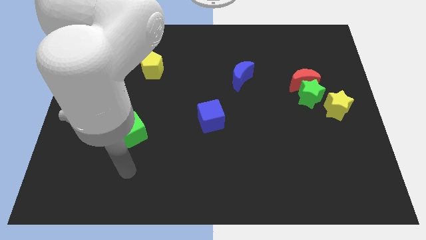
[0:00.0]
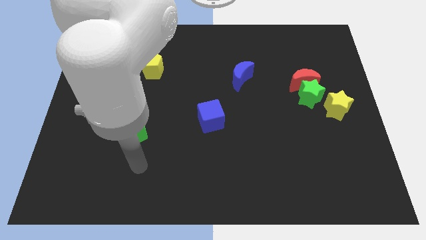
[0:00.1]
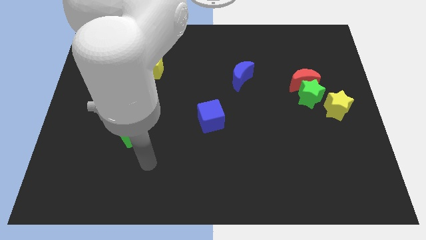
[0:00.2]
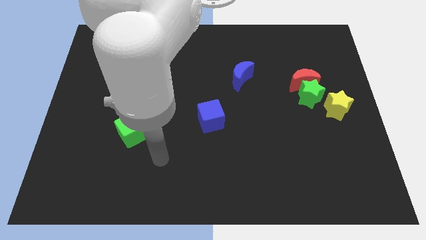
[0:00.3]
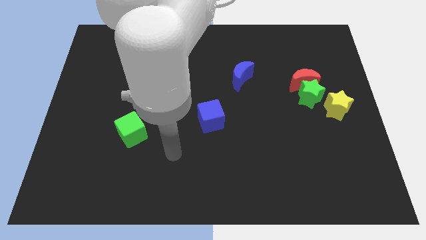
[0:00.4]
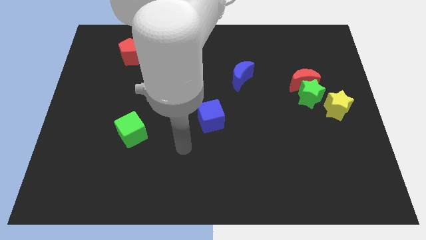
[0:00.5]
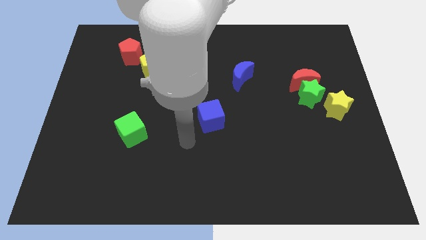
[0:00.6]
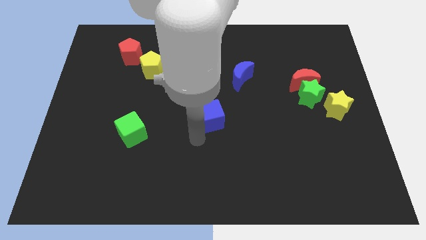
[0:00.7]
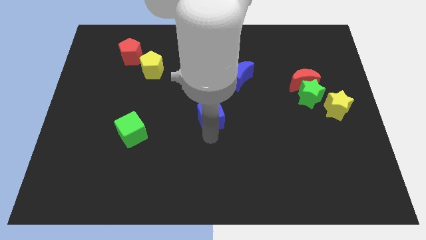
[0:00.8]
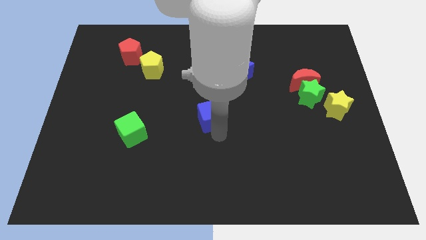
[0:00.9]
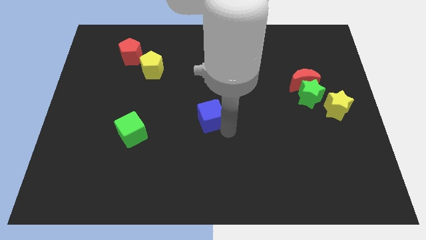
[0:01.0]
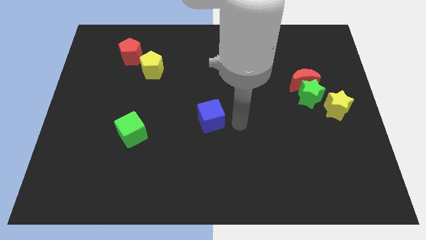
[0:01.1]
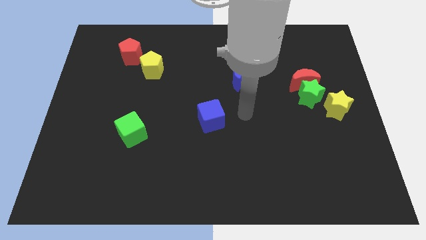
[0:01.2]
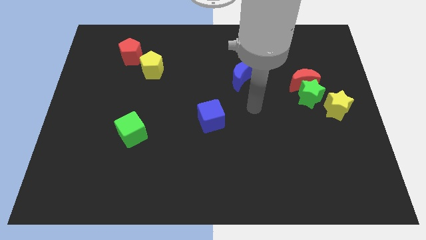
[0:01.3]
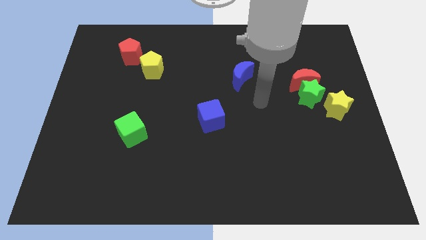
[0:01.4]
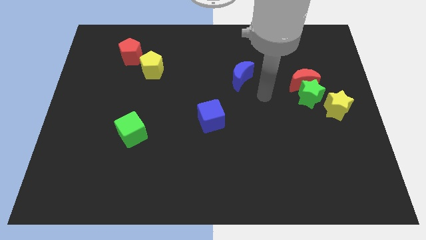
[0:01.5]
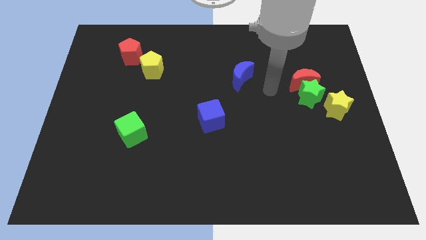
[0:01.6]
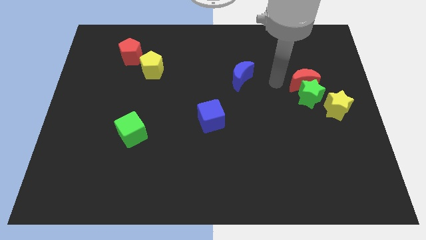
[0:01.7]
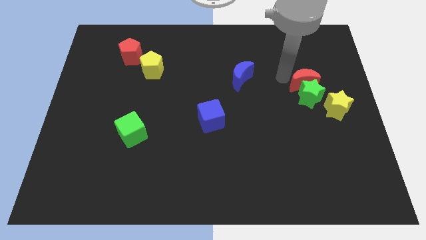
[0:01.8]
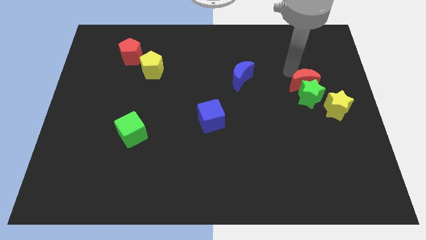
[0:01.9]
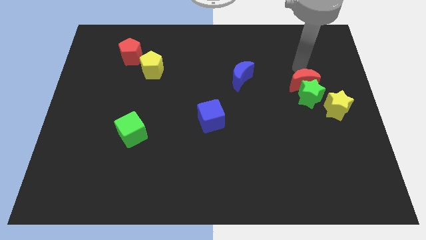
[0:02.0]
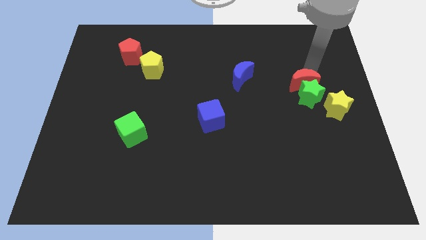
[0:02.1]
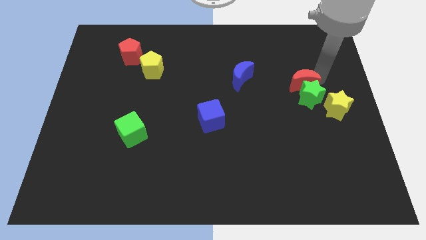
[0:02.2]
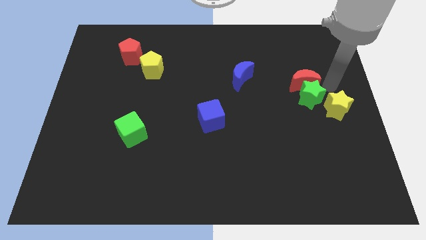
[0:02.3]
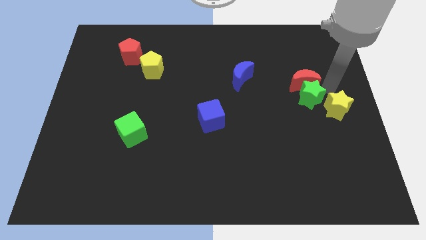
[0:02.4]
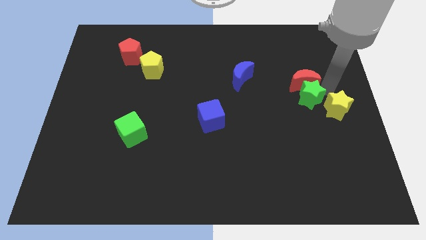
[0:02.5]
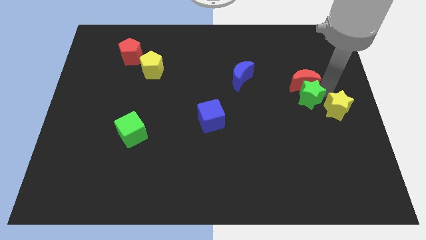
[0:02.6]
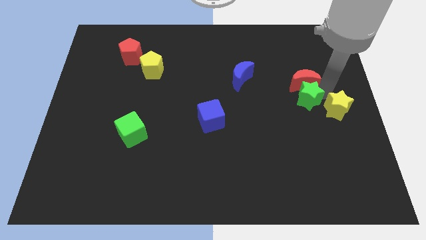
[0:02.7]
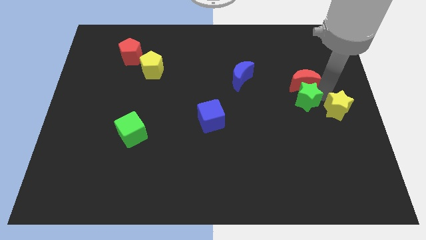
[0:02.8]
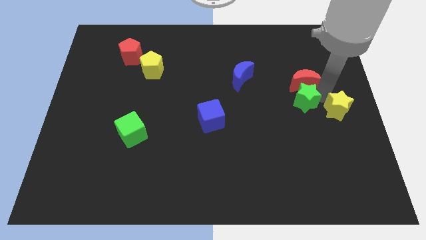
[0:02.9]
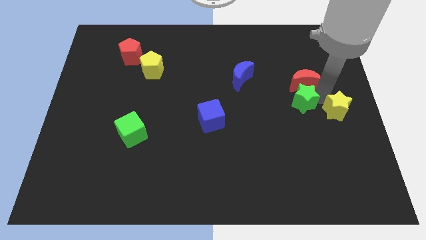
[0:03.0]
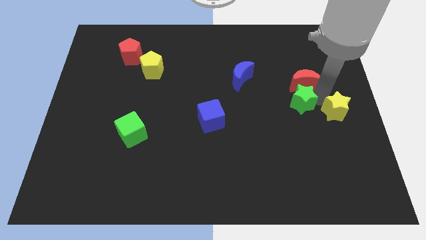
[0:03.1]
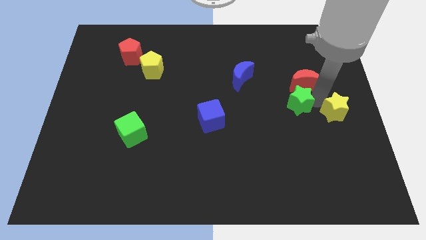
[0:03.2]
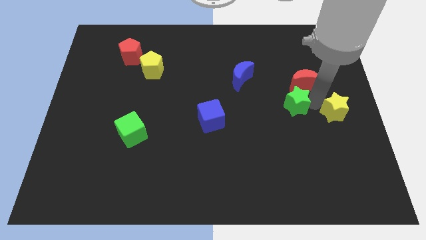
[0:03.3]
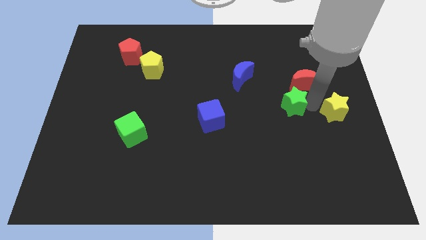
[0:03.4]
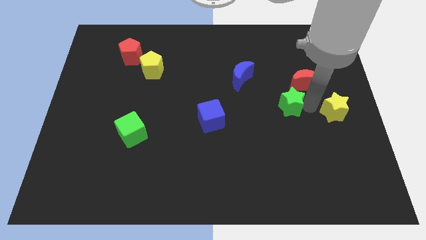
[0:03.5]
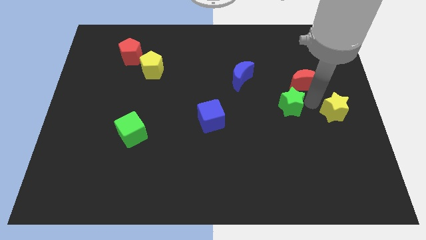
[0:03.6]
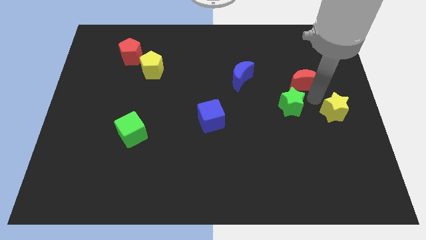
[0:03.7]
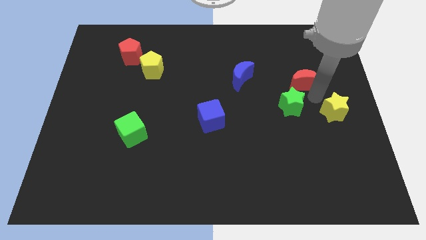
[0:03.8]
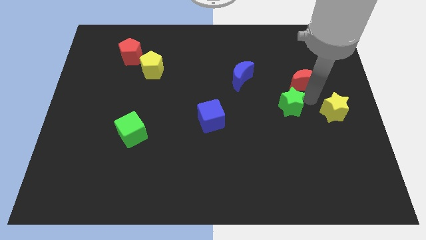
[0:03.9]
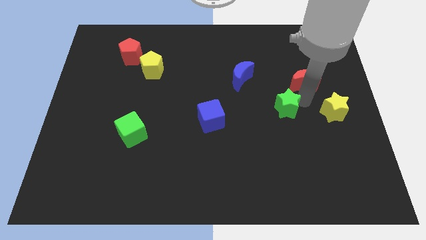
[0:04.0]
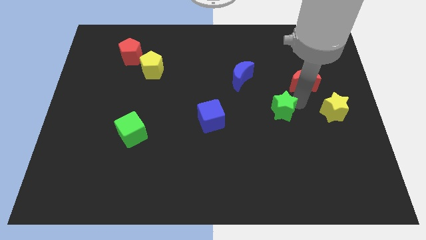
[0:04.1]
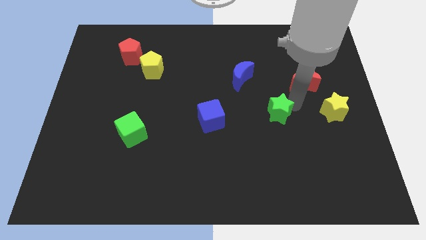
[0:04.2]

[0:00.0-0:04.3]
separate the green star from the red moon and yellow star

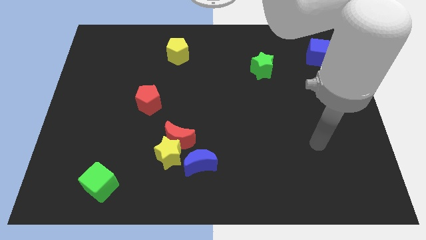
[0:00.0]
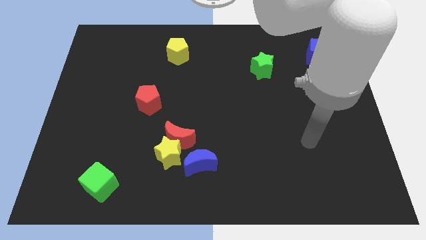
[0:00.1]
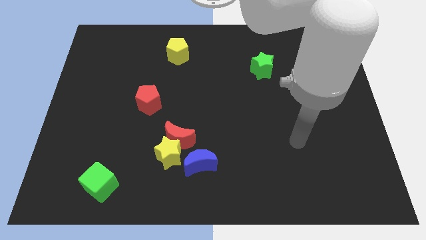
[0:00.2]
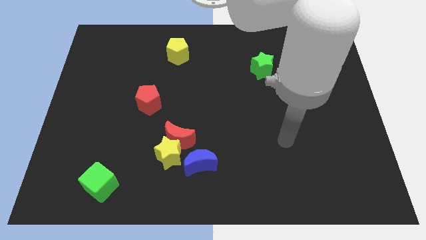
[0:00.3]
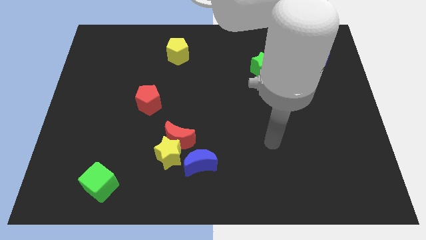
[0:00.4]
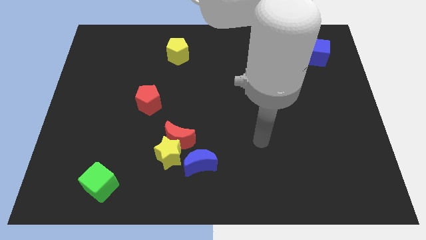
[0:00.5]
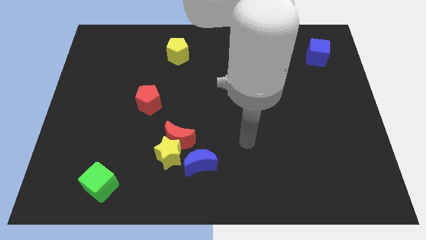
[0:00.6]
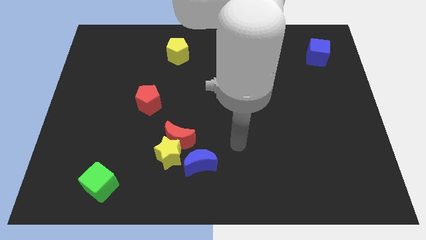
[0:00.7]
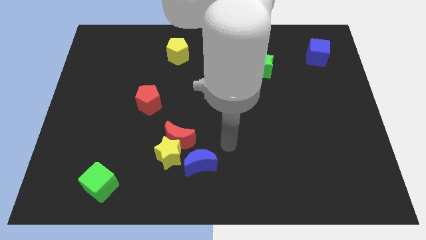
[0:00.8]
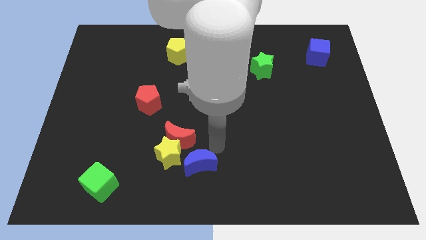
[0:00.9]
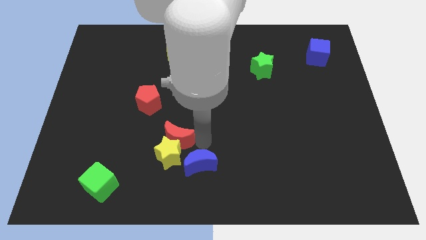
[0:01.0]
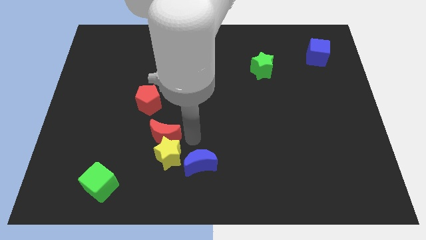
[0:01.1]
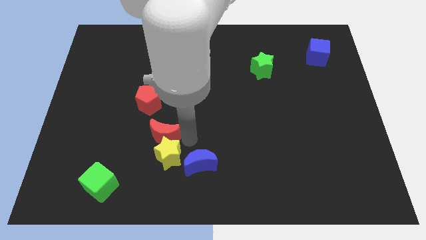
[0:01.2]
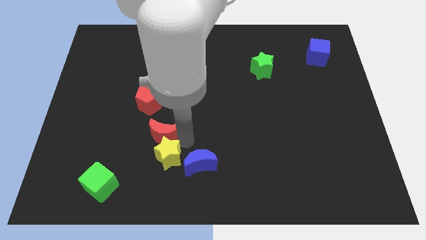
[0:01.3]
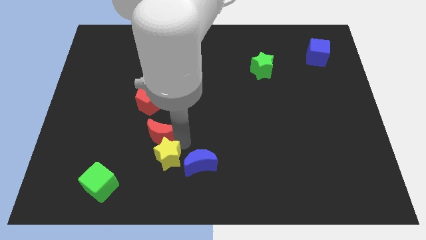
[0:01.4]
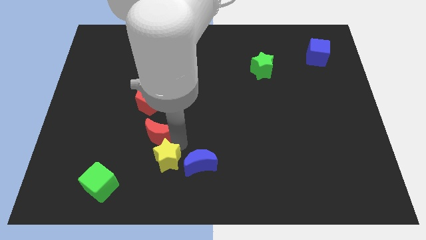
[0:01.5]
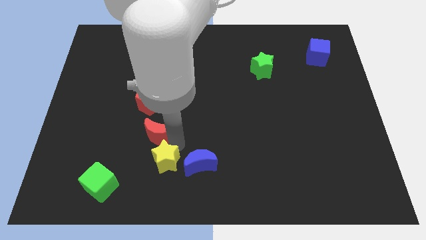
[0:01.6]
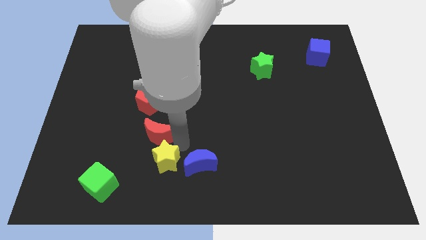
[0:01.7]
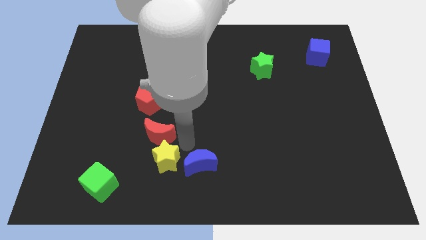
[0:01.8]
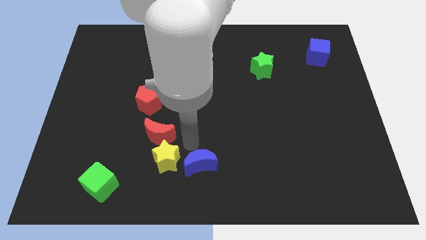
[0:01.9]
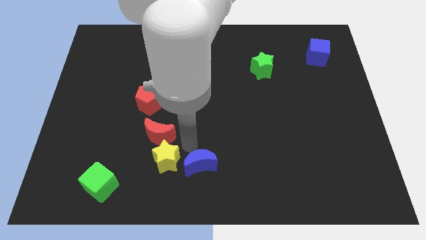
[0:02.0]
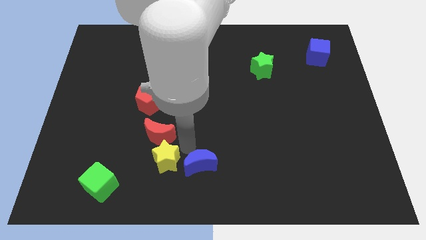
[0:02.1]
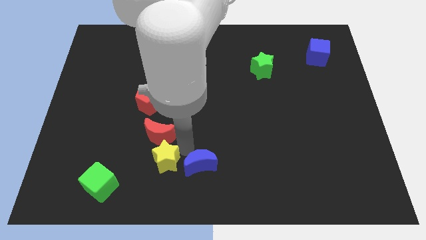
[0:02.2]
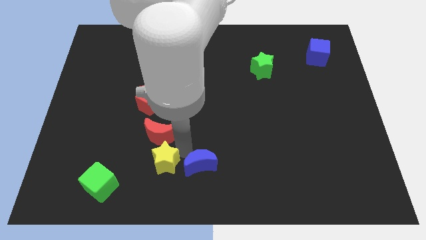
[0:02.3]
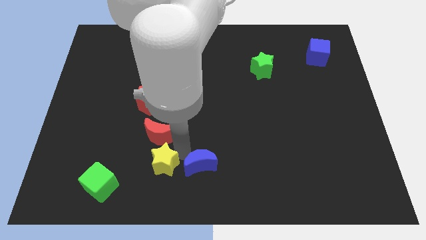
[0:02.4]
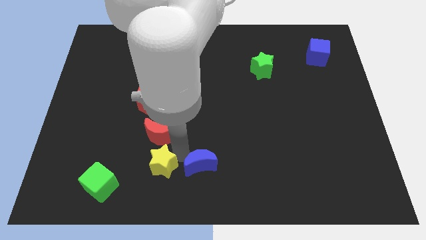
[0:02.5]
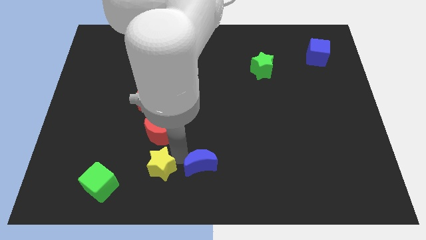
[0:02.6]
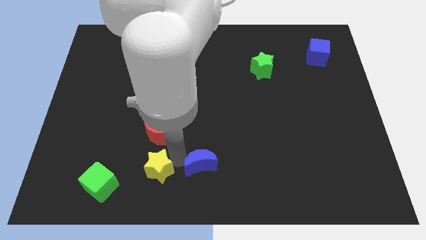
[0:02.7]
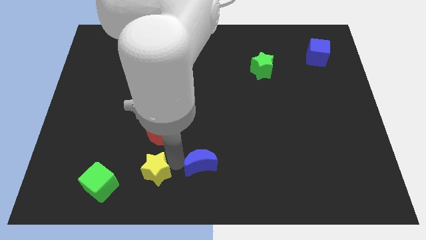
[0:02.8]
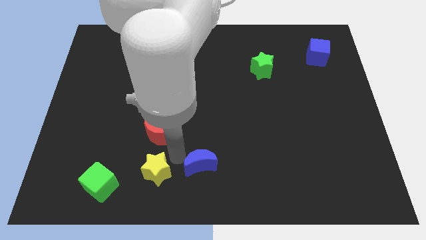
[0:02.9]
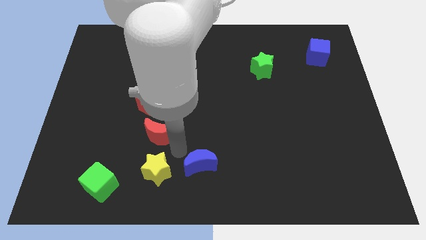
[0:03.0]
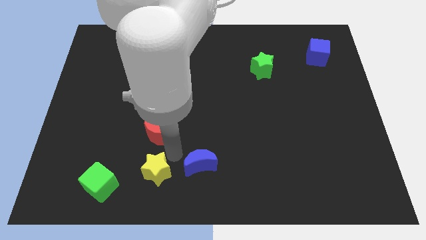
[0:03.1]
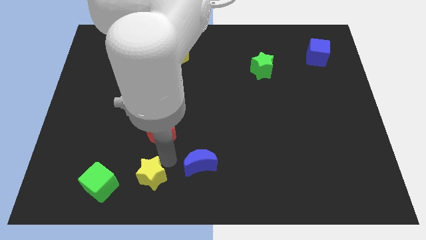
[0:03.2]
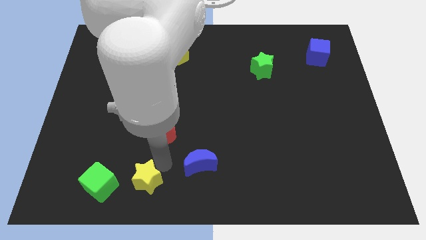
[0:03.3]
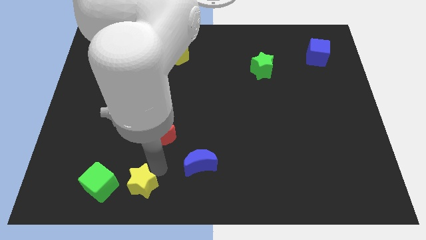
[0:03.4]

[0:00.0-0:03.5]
separate the yellow star from the red moon and blue moon

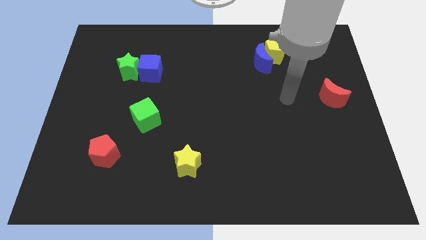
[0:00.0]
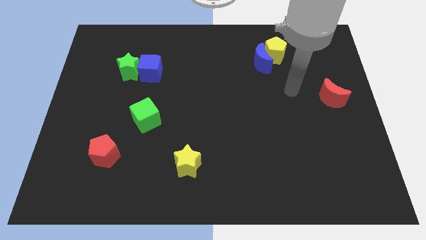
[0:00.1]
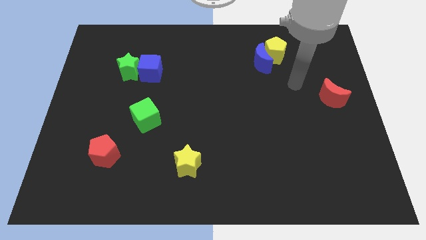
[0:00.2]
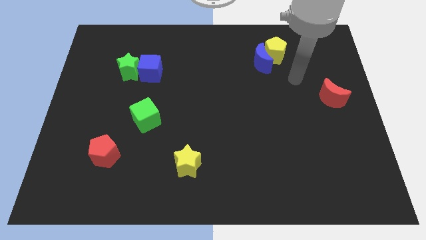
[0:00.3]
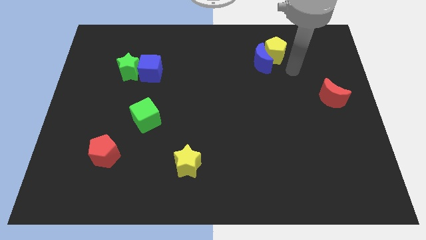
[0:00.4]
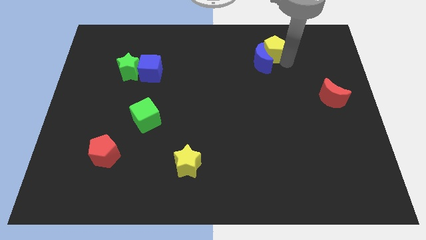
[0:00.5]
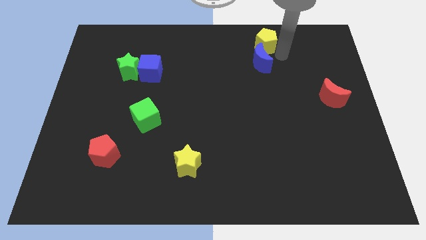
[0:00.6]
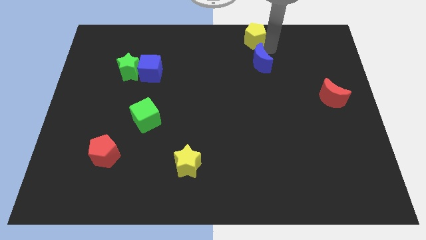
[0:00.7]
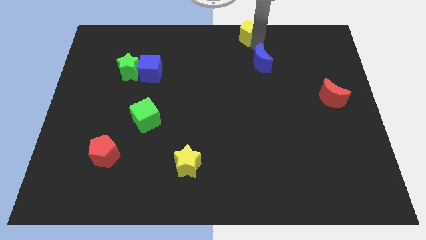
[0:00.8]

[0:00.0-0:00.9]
move the blue moon away from the yellow pentagon

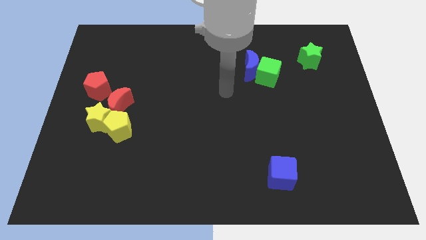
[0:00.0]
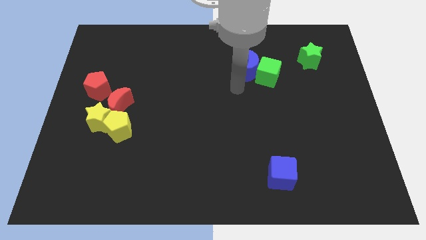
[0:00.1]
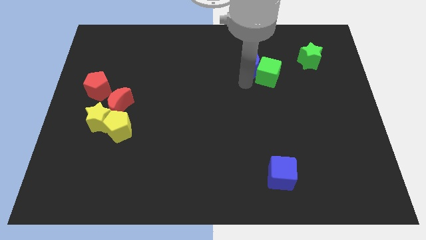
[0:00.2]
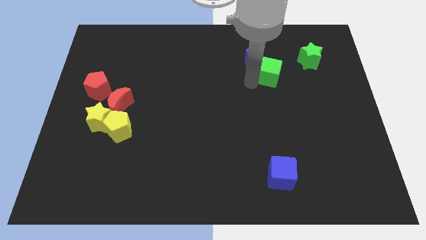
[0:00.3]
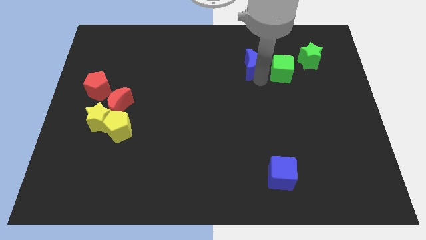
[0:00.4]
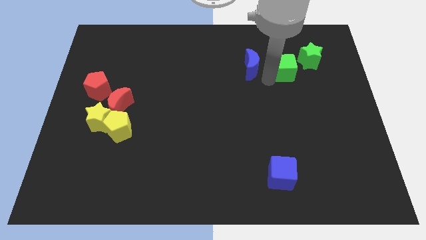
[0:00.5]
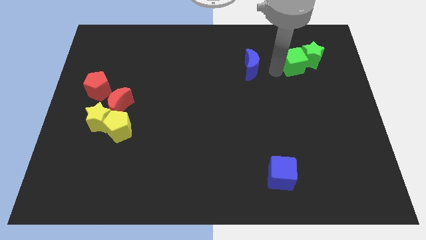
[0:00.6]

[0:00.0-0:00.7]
separate the blue moon from the green cube
